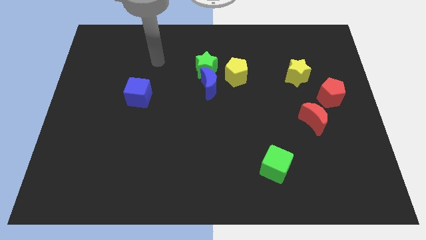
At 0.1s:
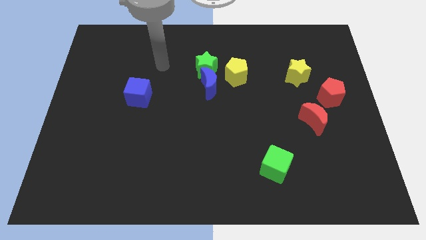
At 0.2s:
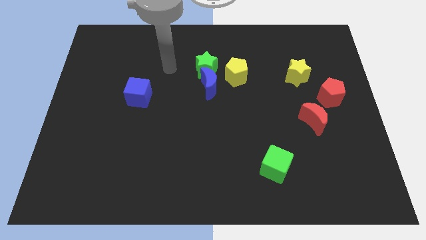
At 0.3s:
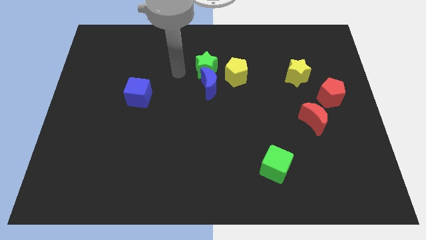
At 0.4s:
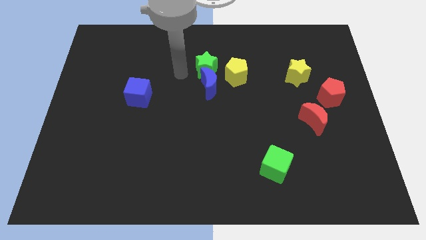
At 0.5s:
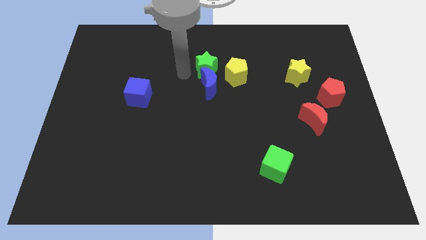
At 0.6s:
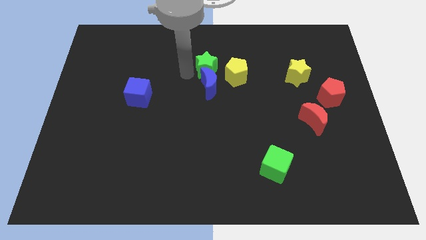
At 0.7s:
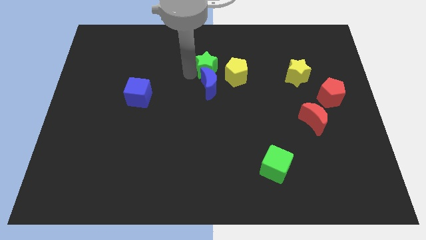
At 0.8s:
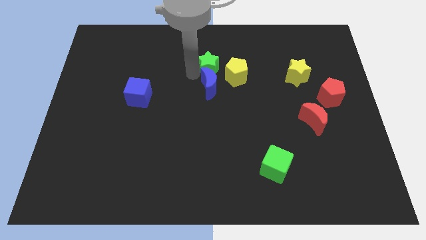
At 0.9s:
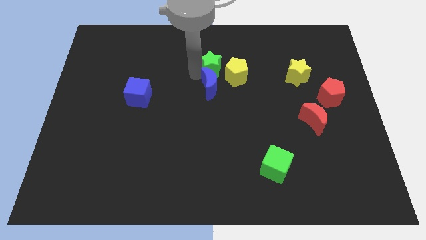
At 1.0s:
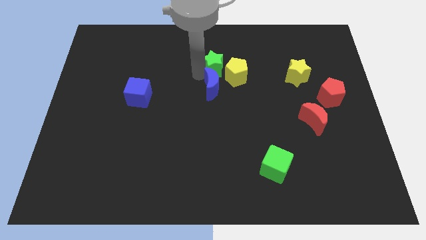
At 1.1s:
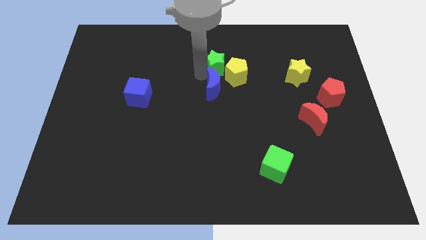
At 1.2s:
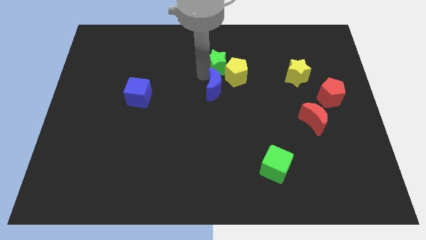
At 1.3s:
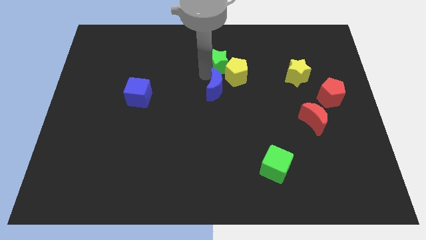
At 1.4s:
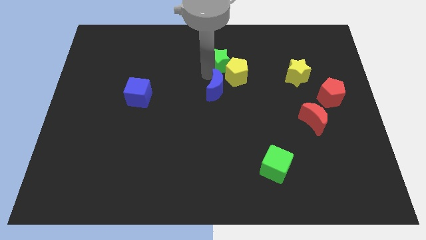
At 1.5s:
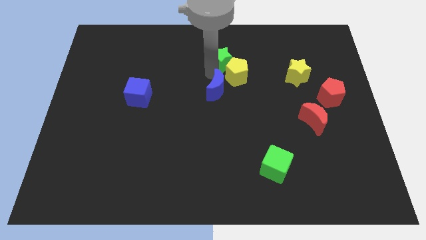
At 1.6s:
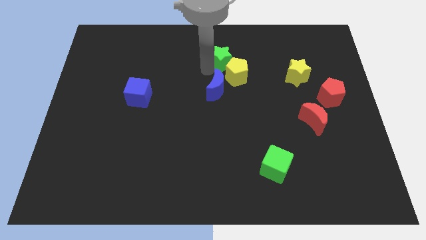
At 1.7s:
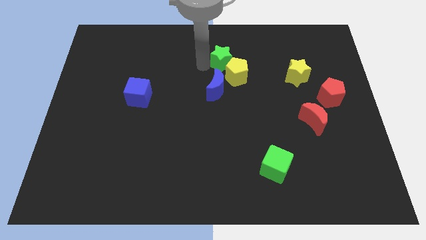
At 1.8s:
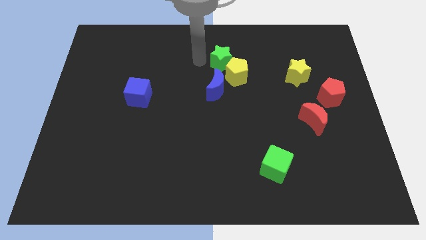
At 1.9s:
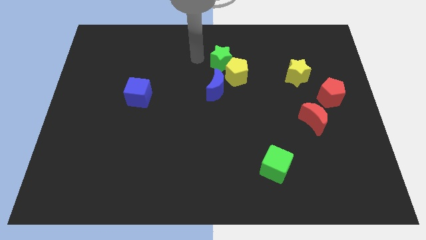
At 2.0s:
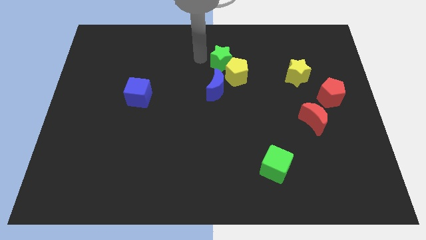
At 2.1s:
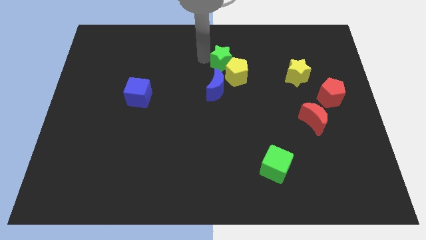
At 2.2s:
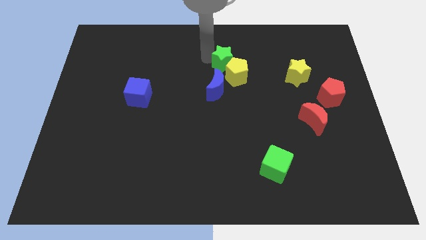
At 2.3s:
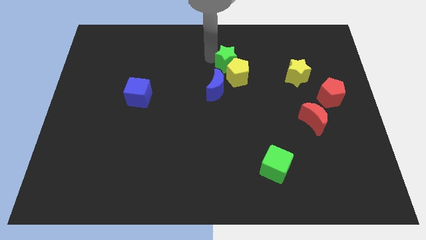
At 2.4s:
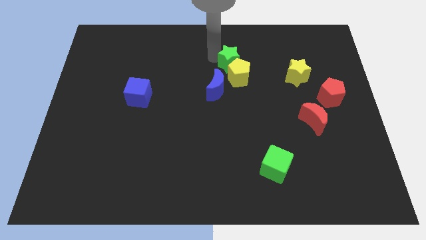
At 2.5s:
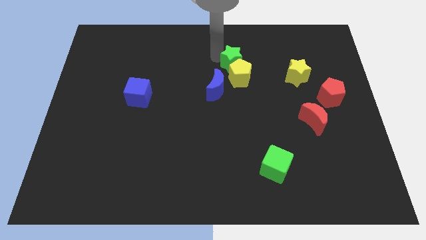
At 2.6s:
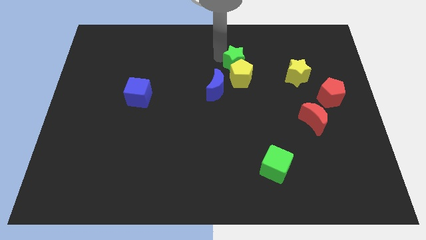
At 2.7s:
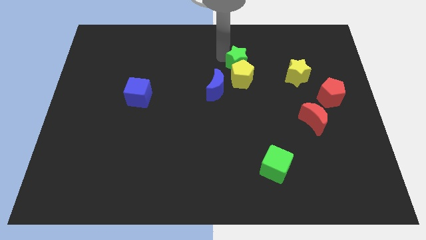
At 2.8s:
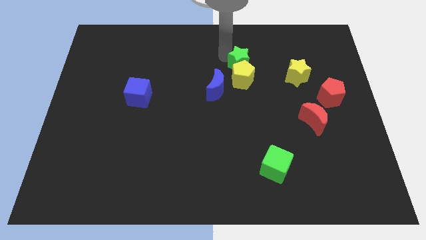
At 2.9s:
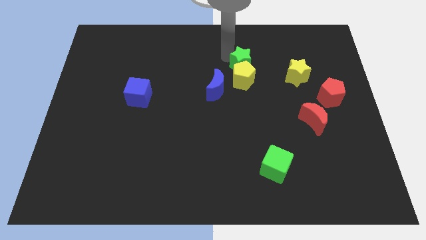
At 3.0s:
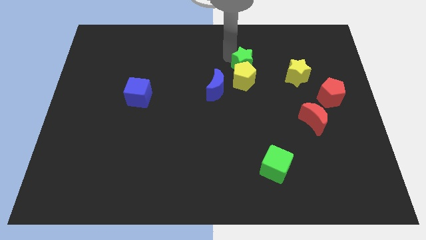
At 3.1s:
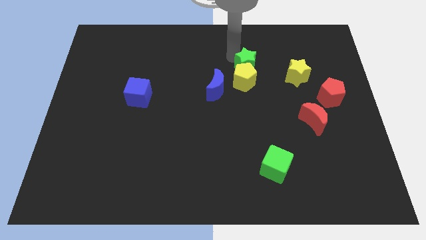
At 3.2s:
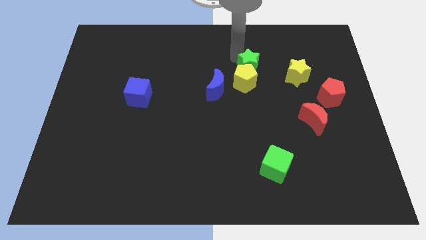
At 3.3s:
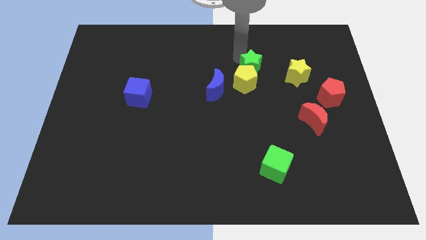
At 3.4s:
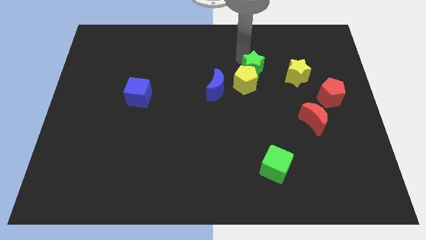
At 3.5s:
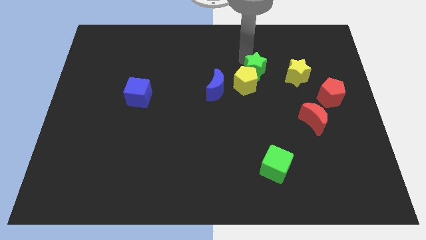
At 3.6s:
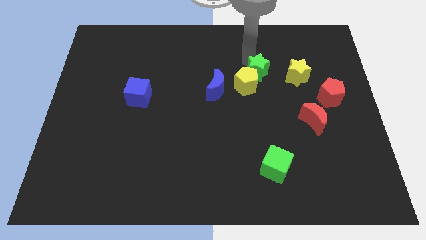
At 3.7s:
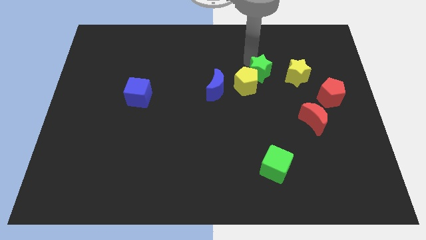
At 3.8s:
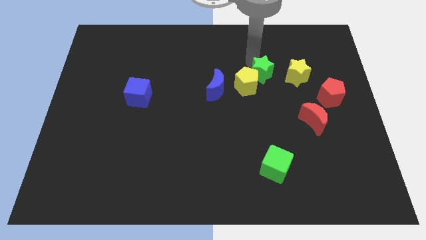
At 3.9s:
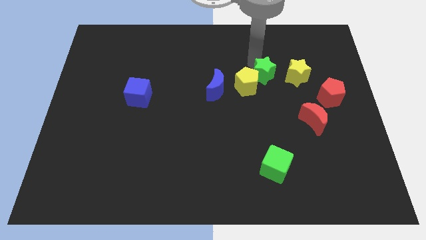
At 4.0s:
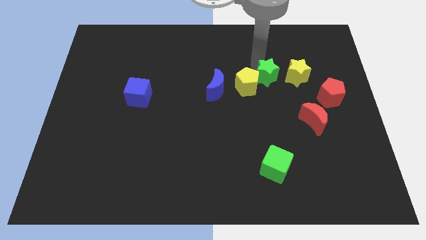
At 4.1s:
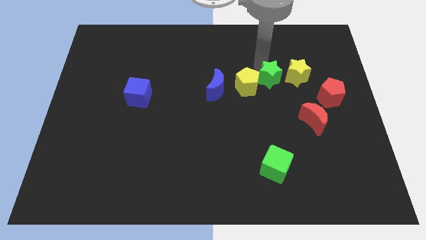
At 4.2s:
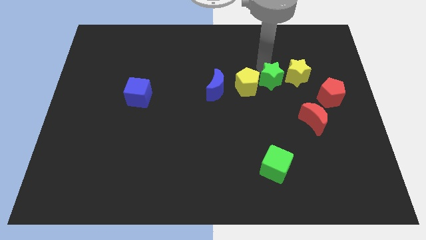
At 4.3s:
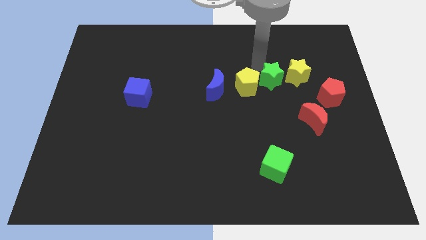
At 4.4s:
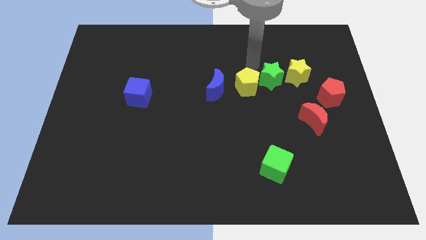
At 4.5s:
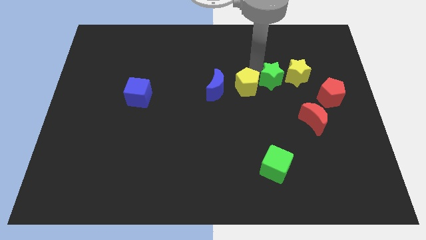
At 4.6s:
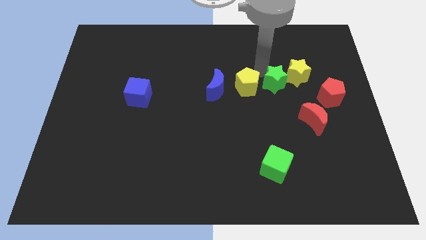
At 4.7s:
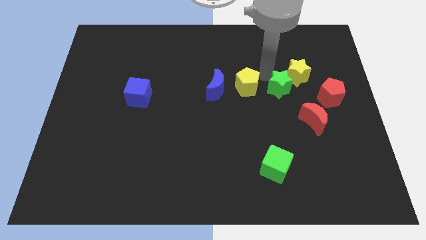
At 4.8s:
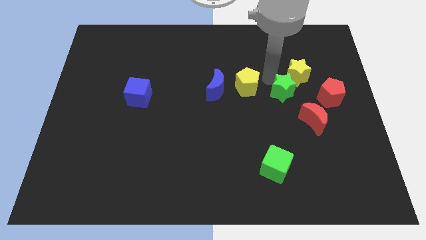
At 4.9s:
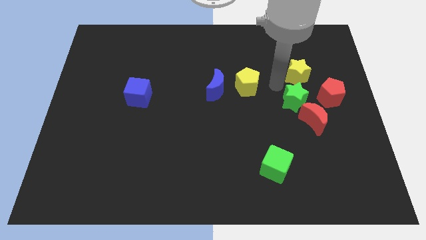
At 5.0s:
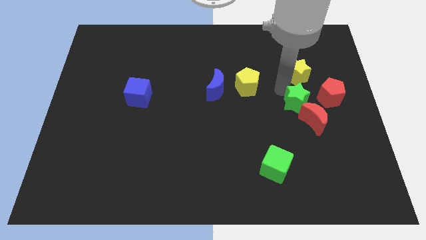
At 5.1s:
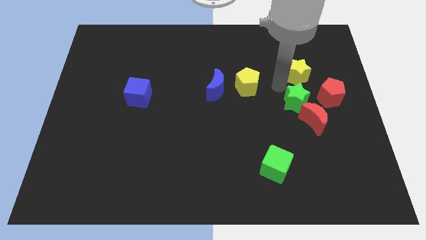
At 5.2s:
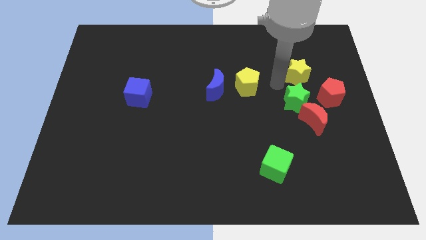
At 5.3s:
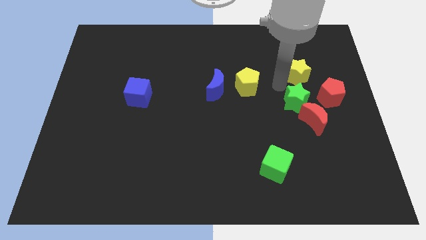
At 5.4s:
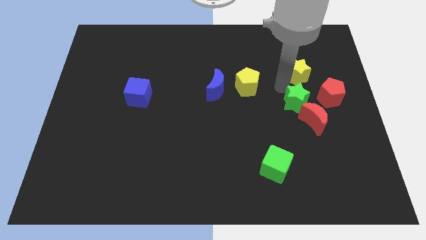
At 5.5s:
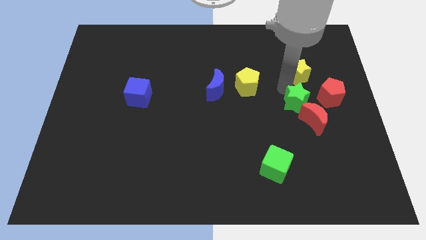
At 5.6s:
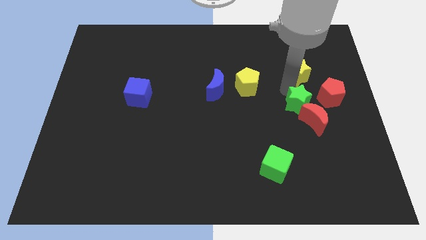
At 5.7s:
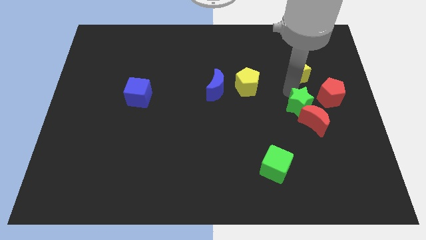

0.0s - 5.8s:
move the green star to the red moon

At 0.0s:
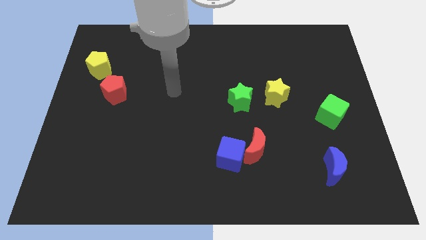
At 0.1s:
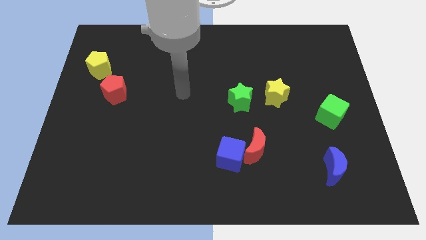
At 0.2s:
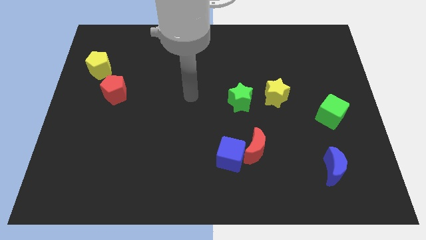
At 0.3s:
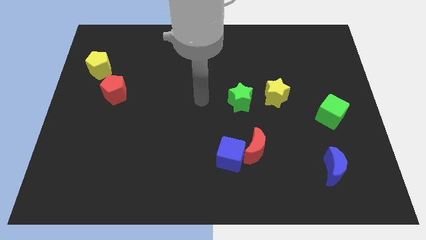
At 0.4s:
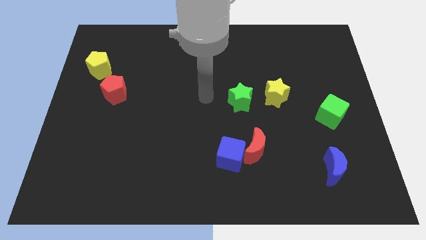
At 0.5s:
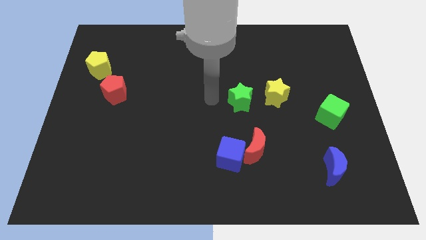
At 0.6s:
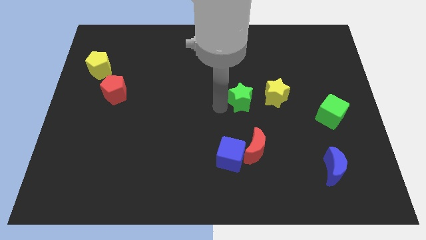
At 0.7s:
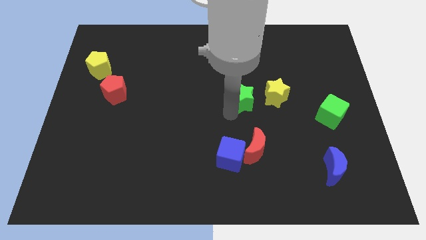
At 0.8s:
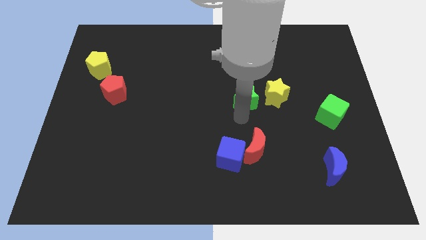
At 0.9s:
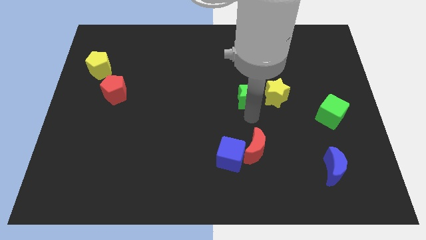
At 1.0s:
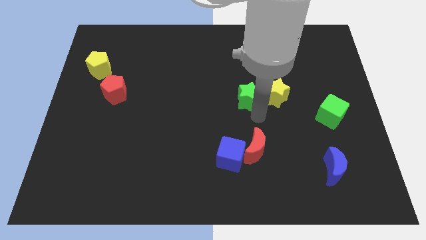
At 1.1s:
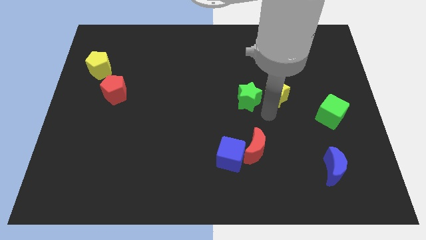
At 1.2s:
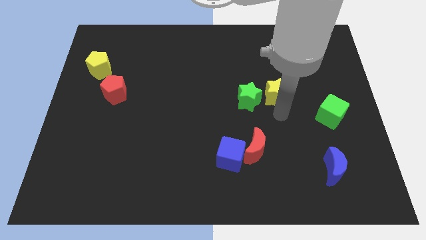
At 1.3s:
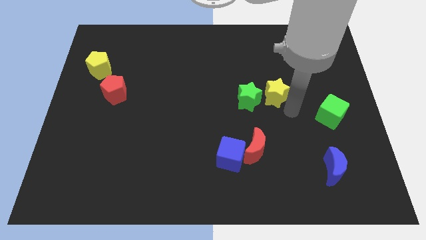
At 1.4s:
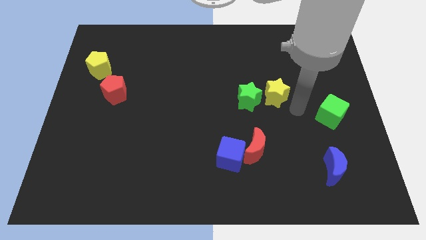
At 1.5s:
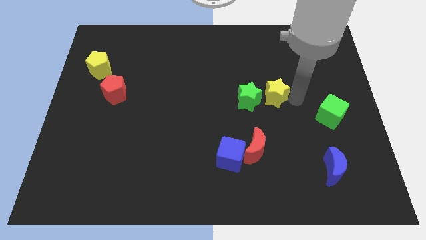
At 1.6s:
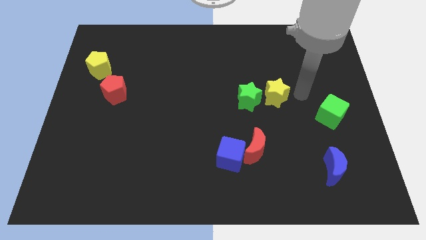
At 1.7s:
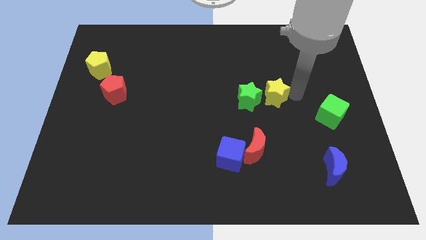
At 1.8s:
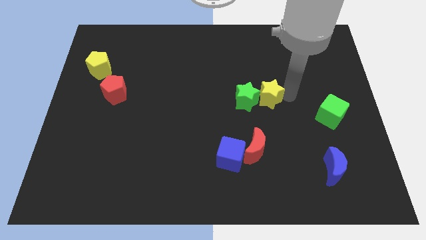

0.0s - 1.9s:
slide the yellow star towards the green star
